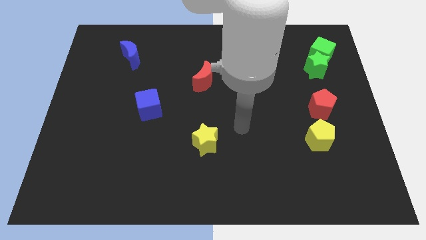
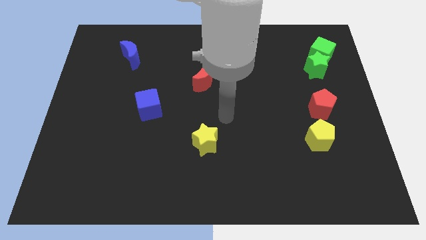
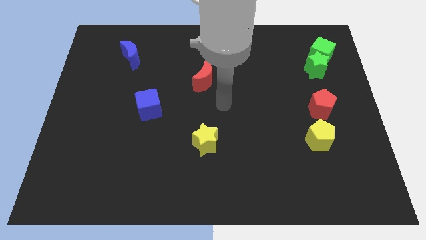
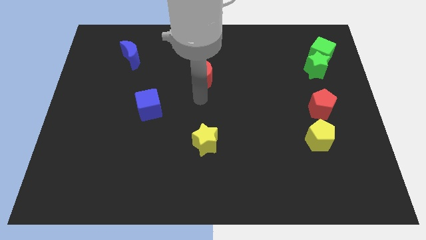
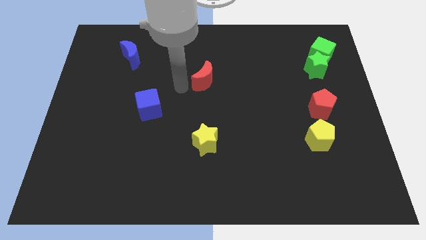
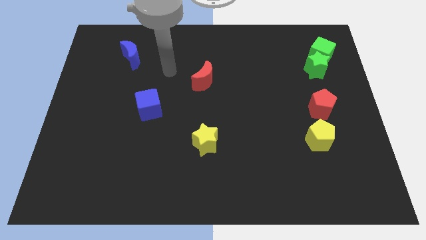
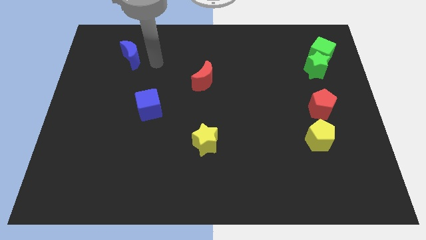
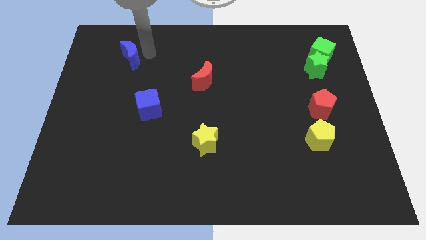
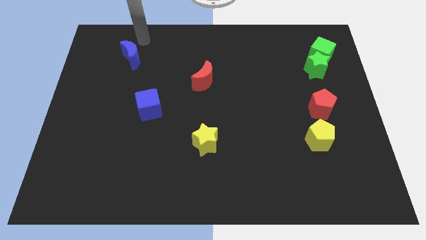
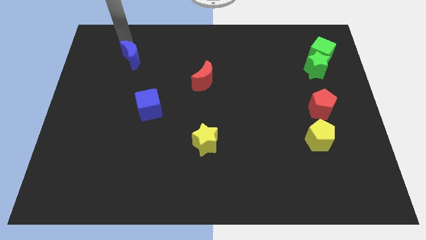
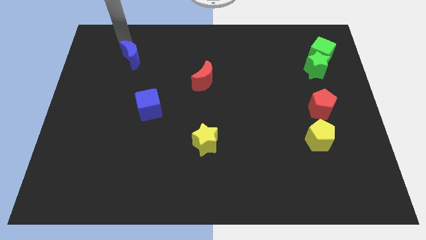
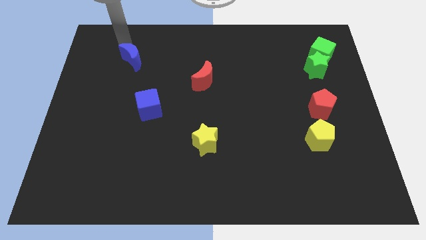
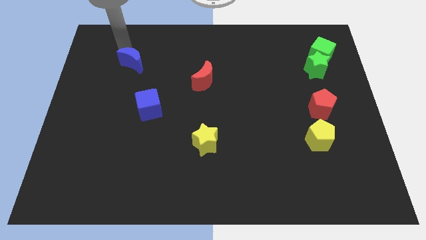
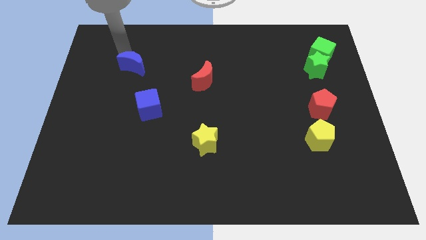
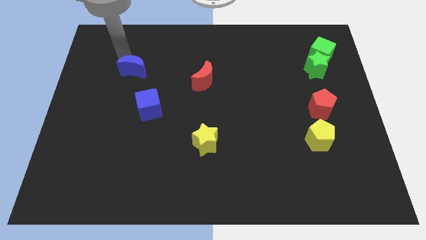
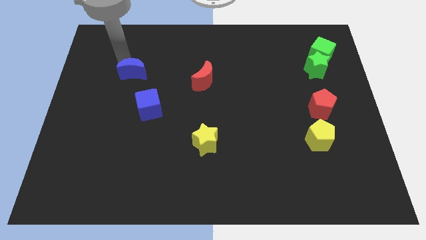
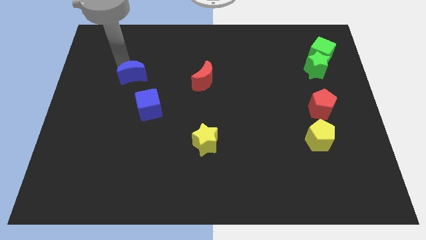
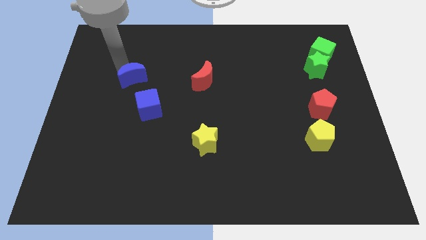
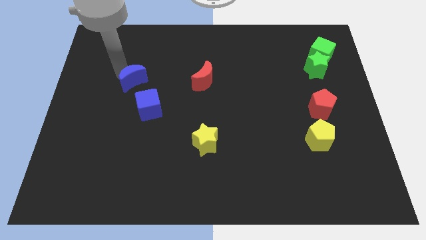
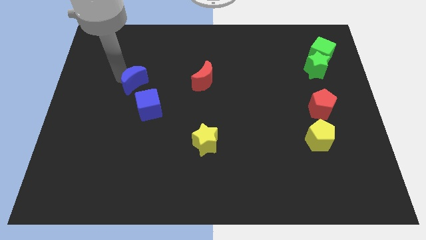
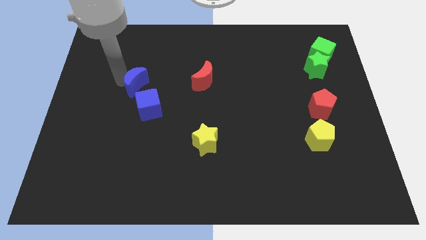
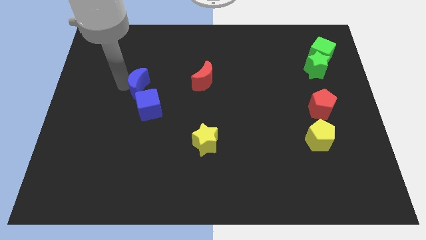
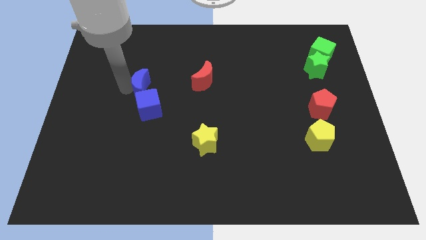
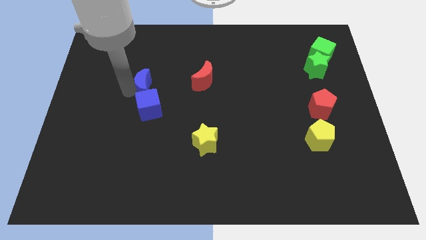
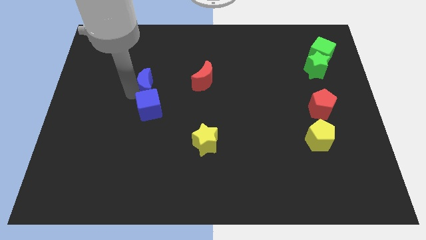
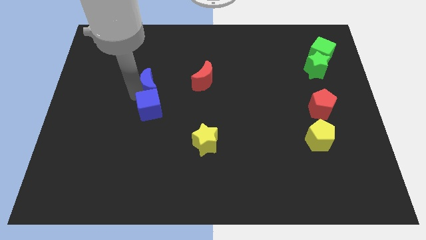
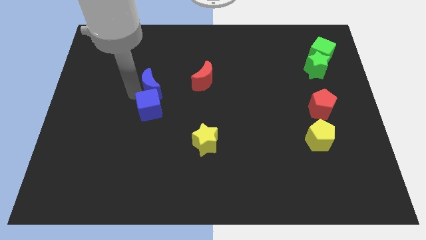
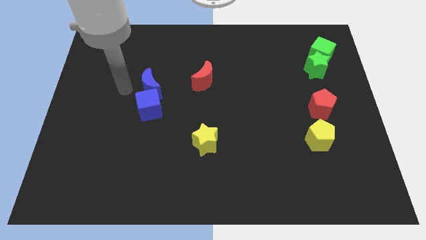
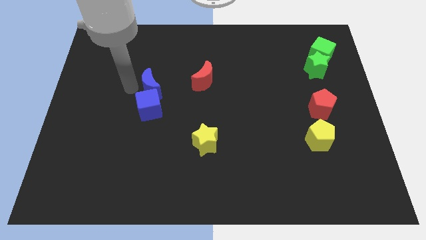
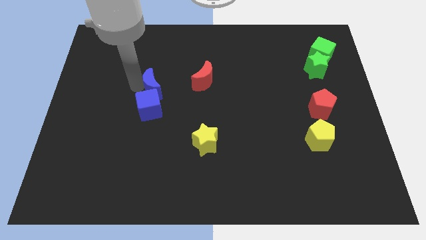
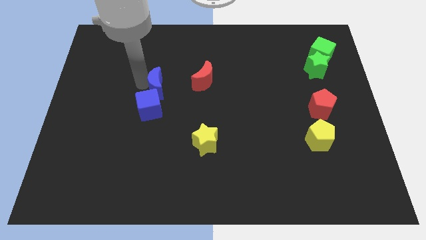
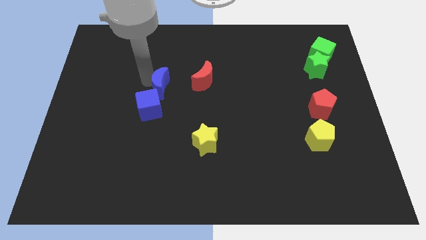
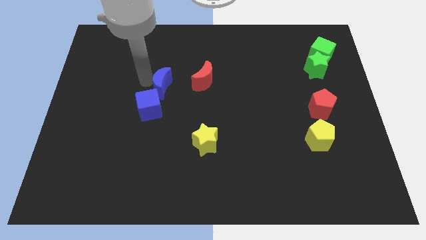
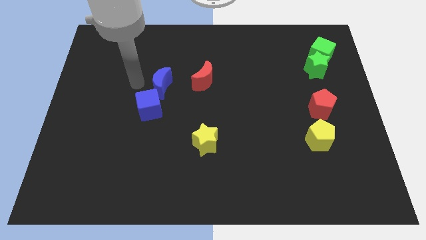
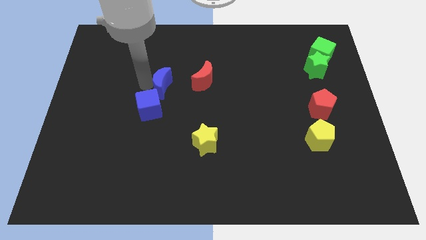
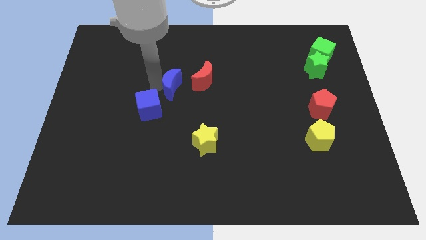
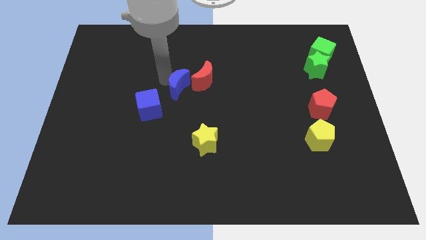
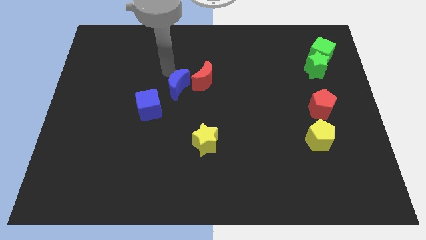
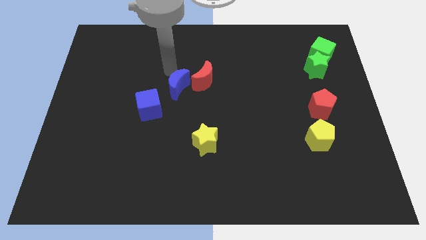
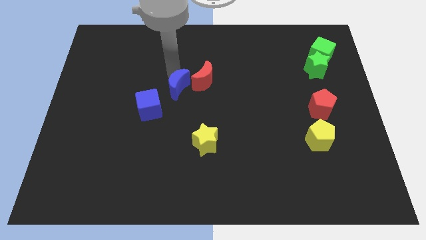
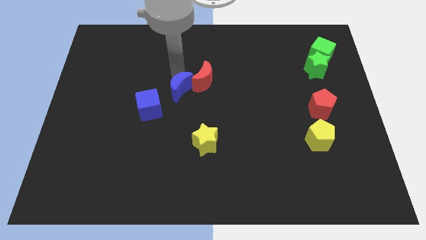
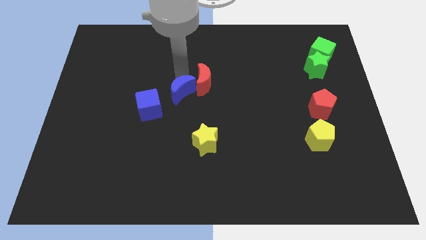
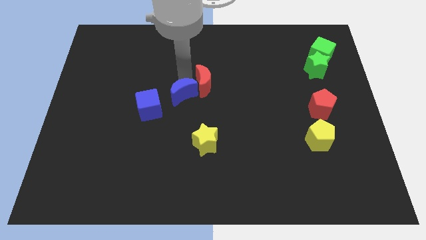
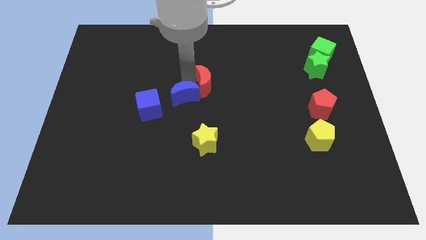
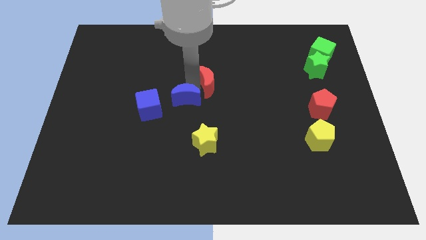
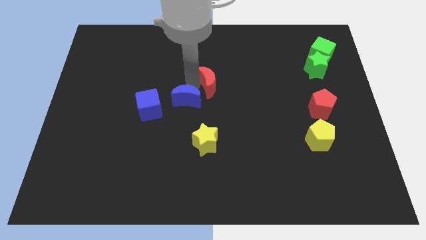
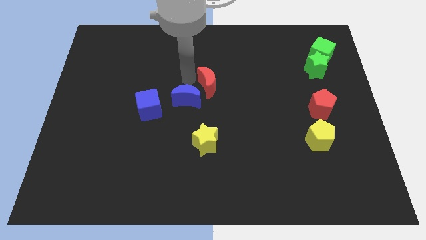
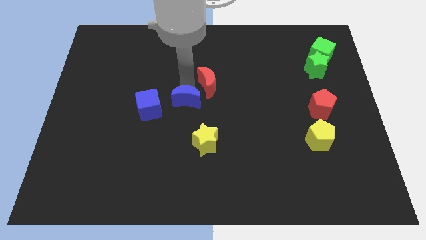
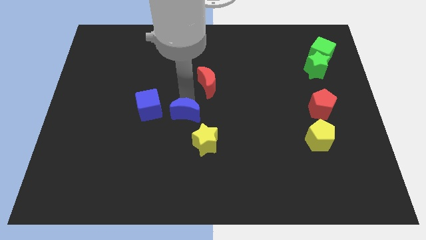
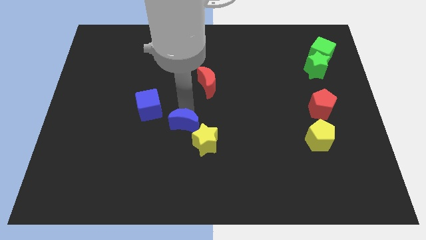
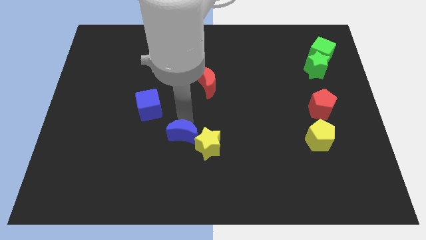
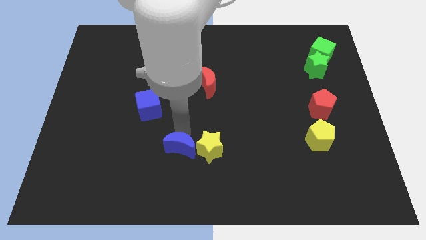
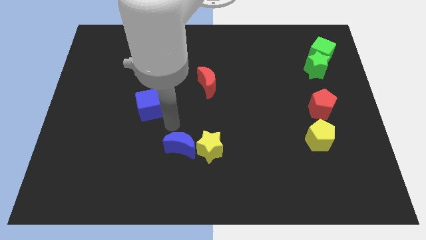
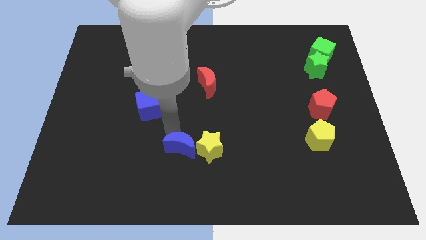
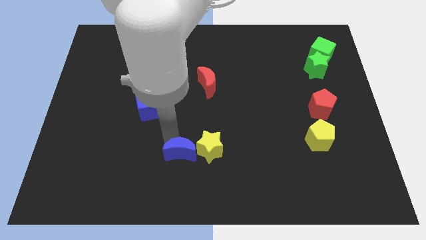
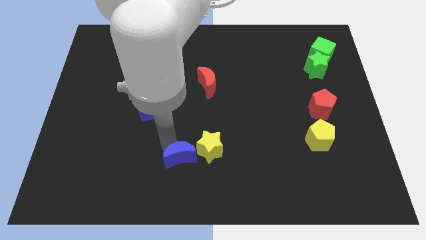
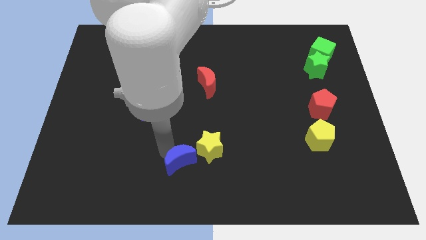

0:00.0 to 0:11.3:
push the blue moon to the bottom

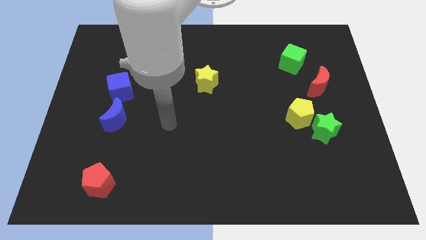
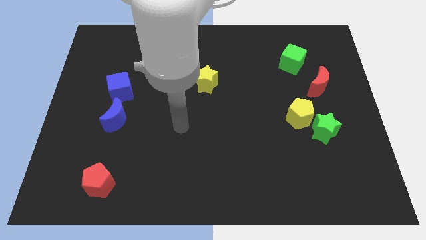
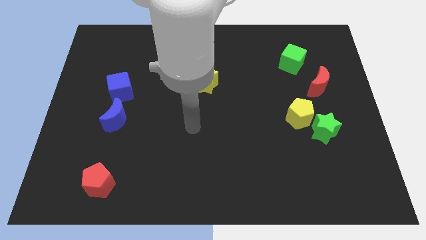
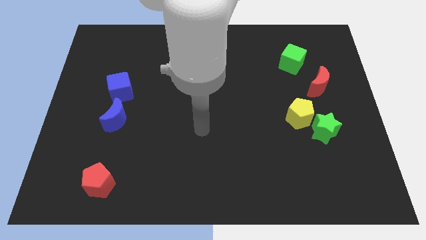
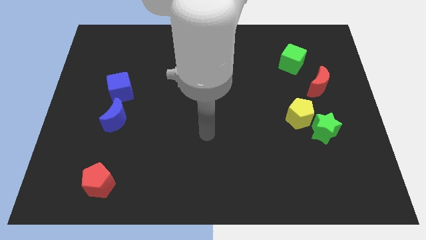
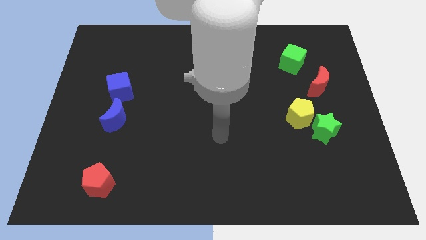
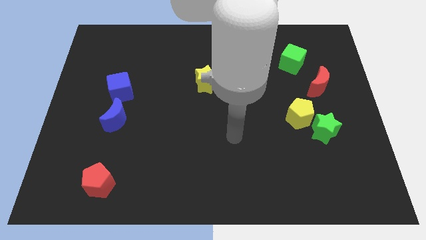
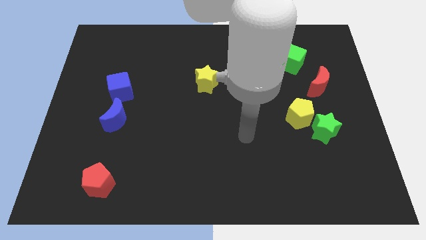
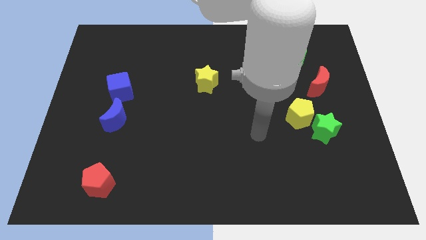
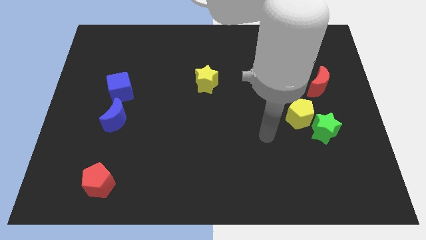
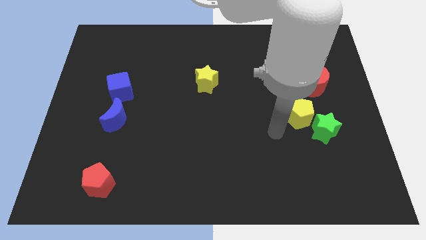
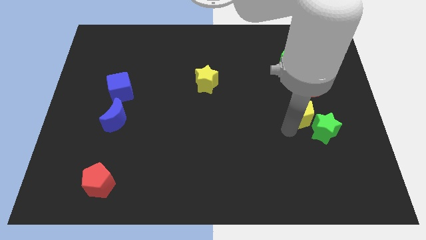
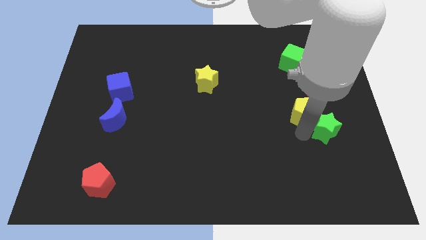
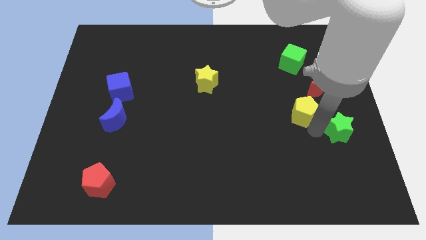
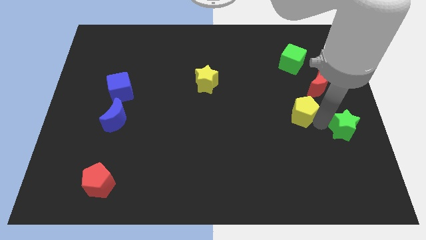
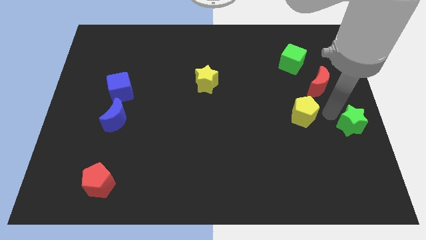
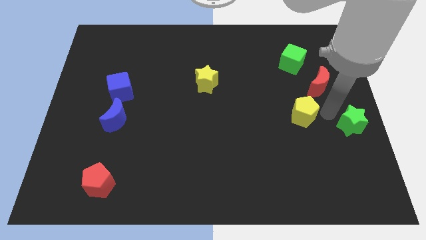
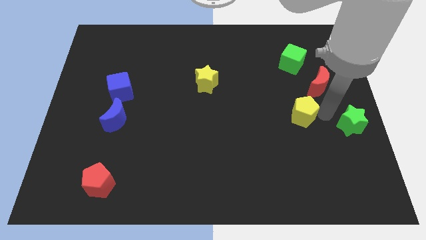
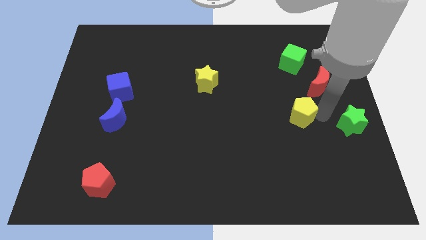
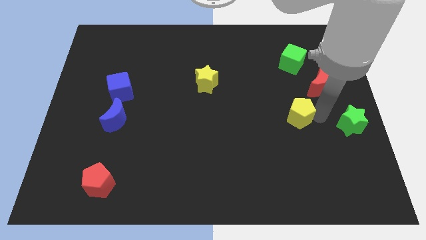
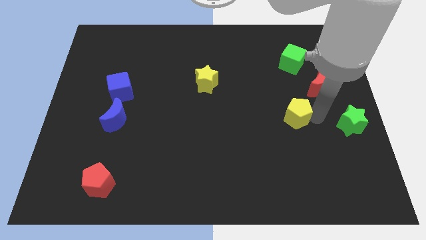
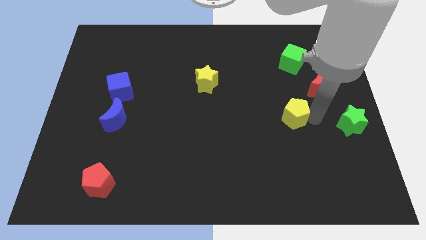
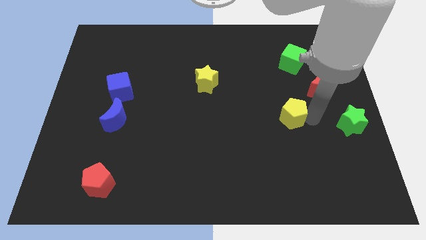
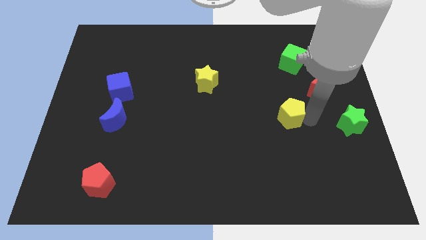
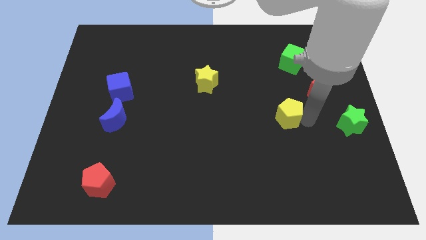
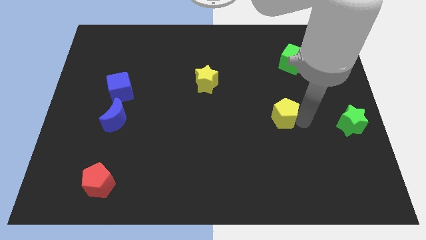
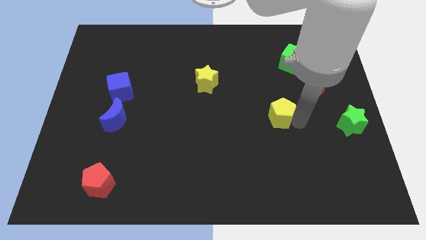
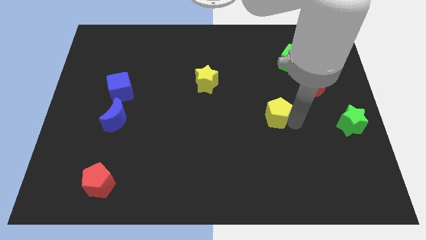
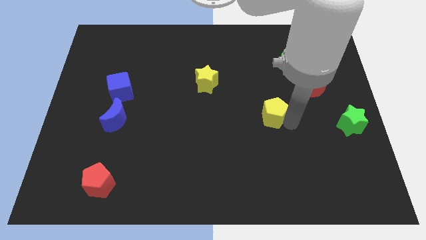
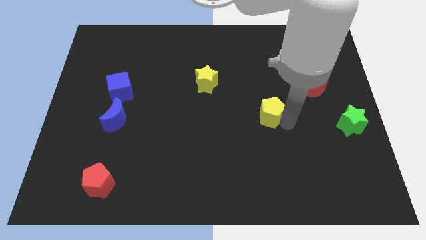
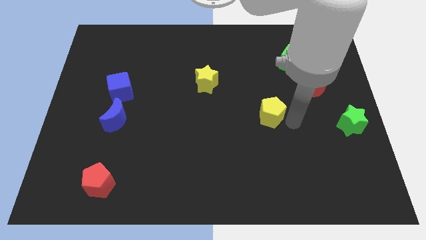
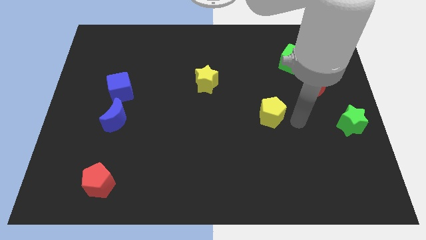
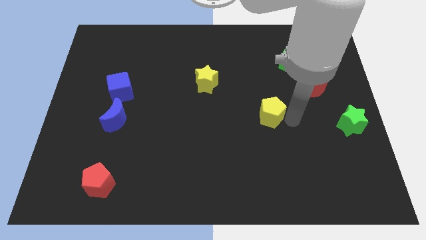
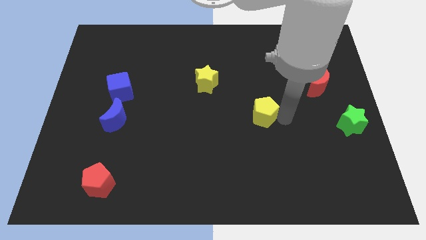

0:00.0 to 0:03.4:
move the yellow pentagon to the middle
